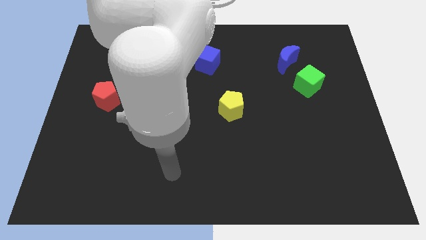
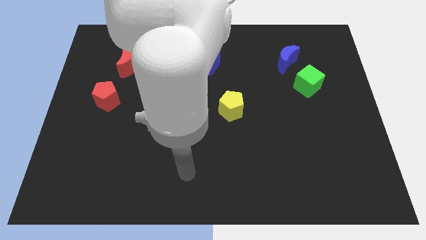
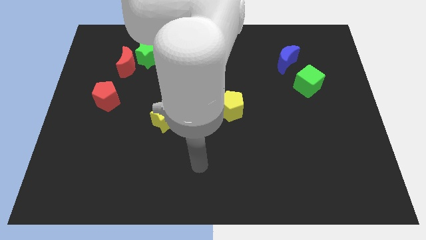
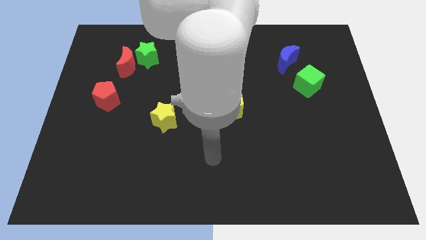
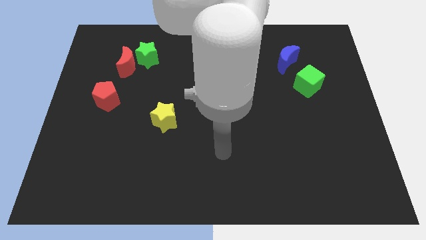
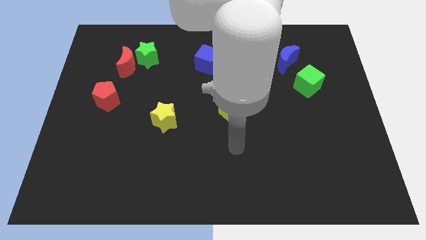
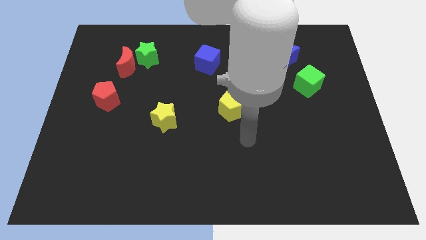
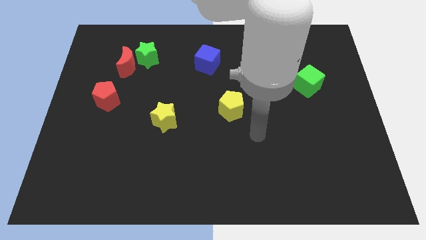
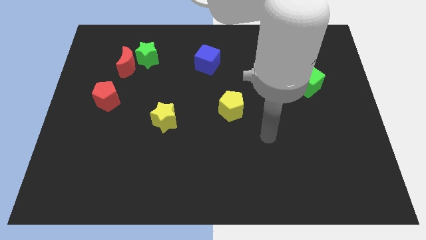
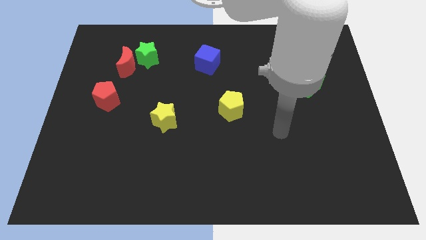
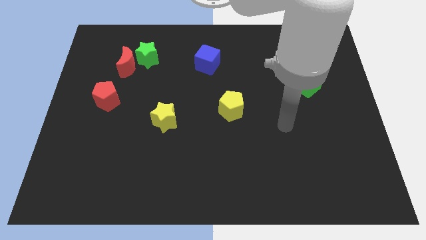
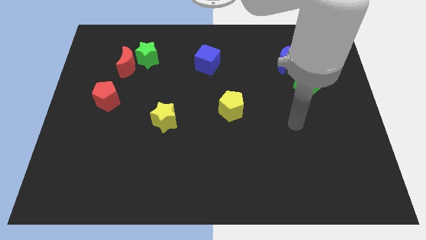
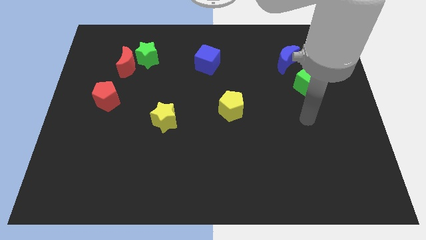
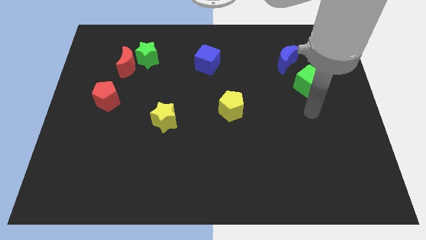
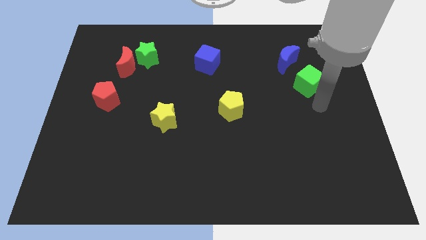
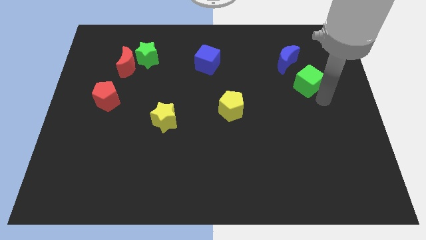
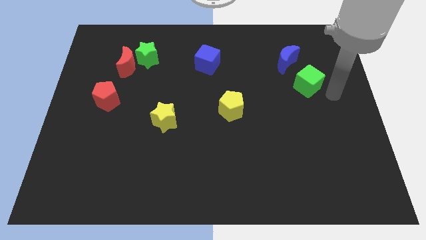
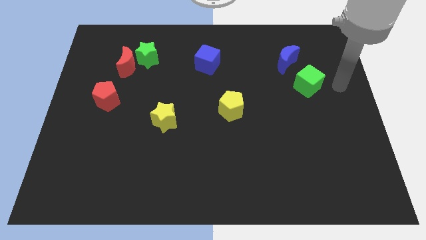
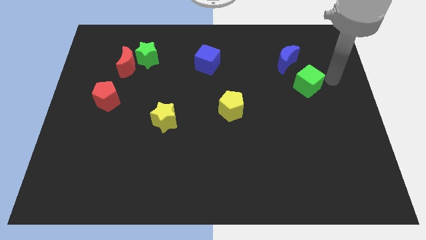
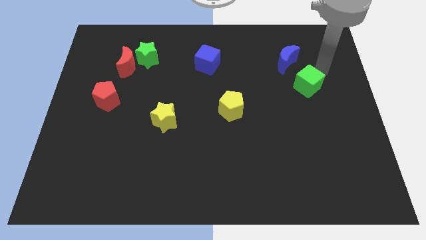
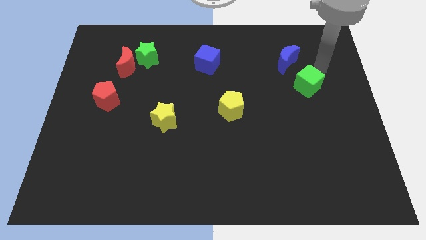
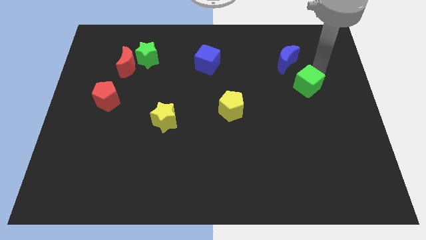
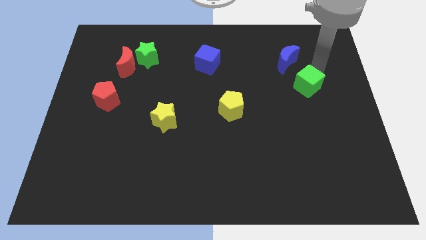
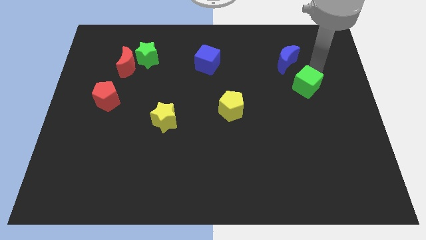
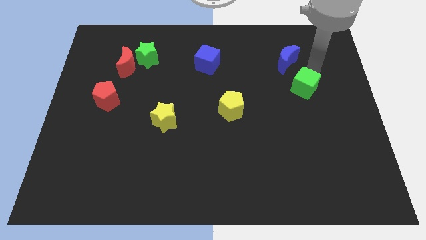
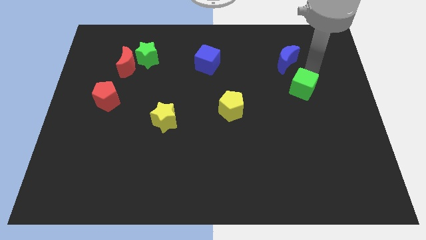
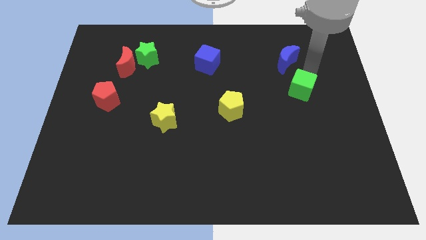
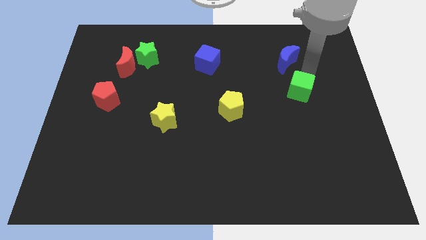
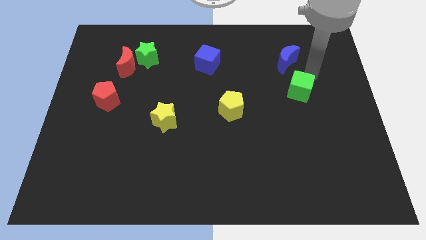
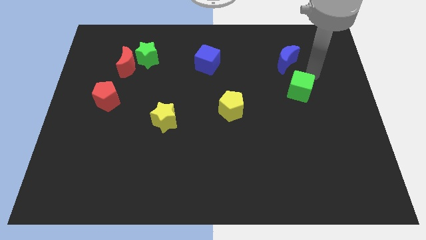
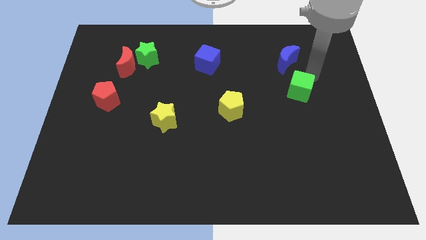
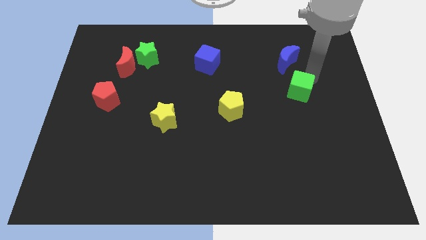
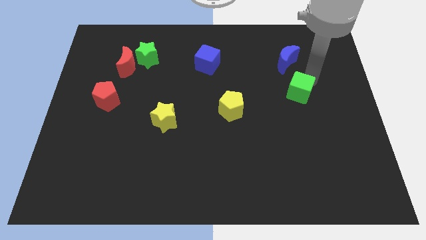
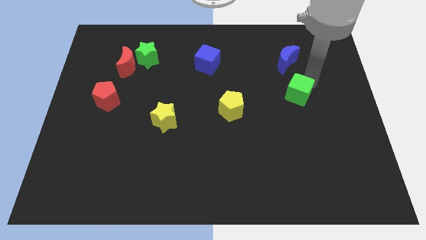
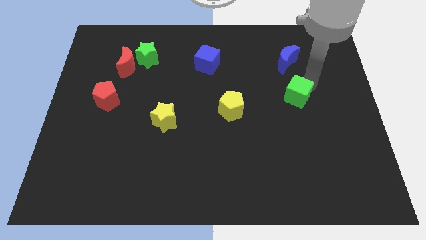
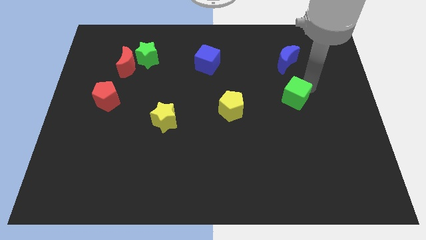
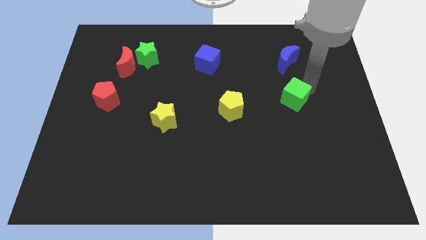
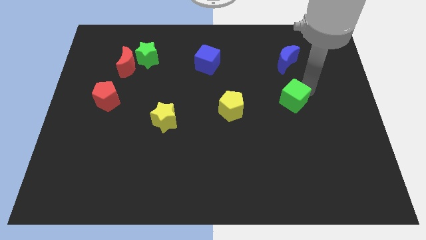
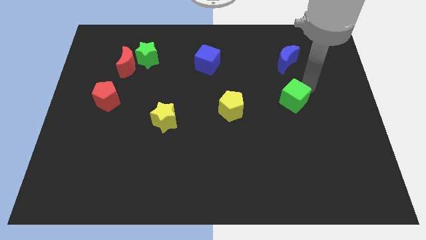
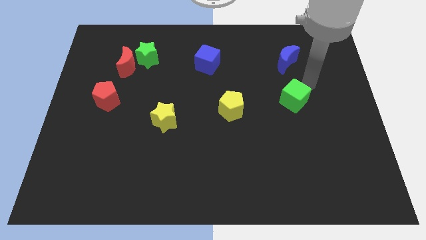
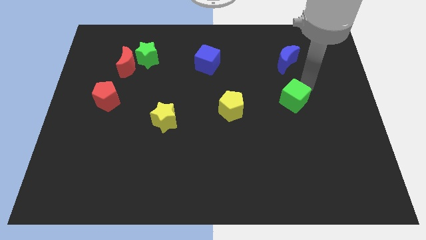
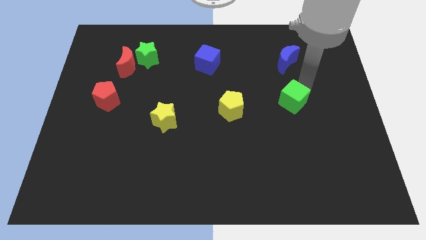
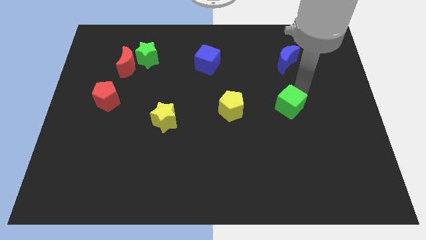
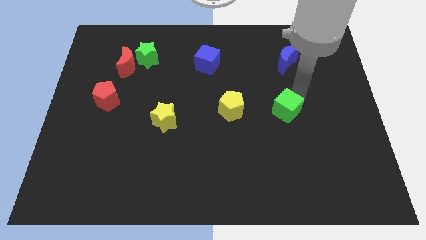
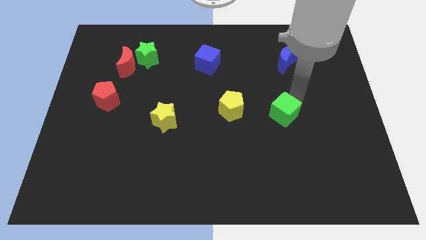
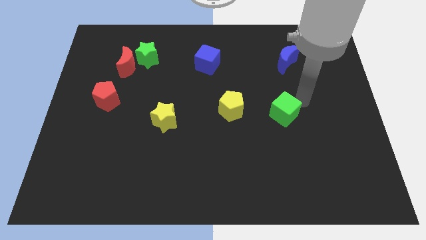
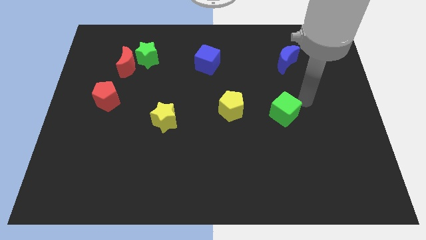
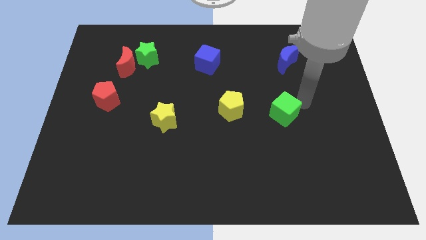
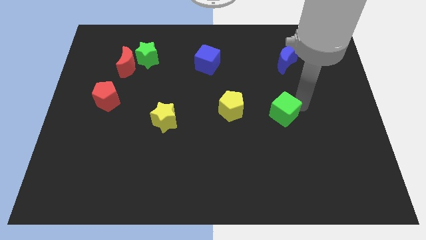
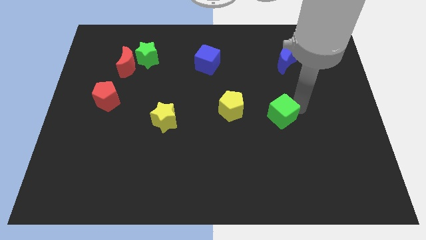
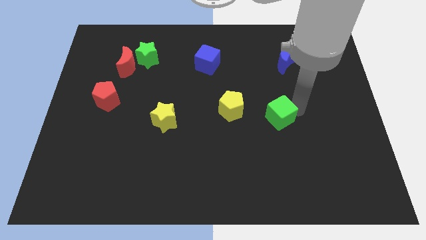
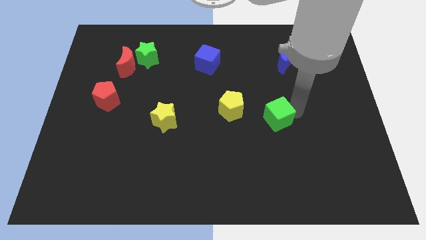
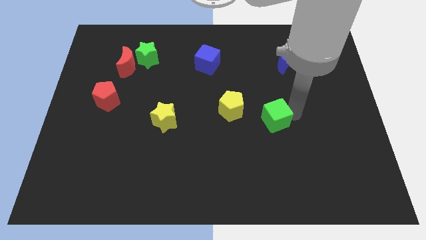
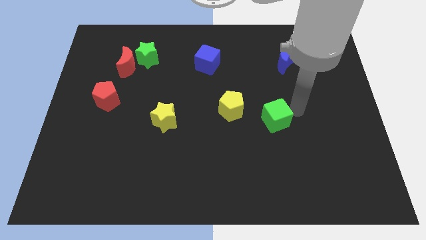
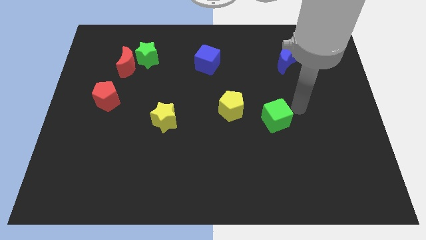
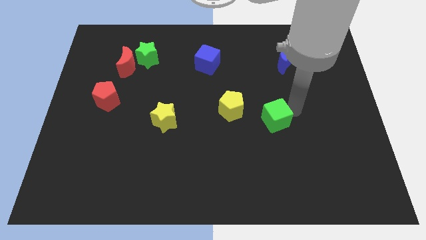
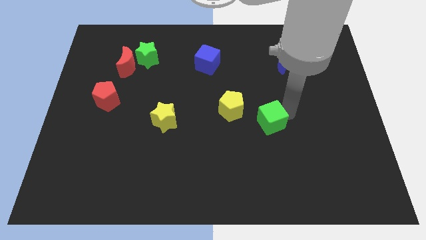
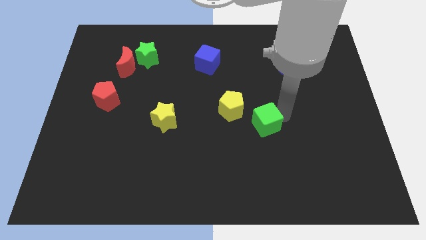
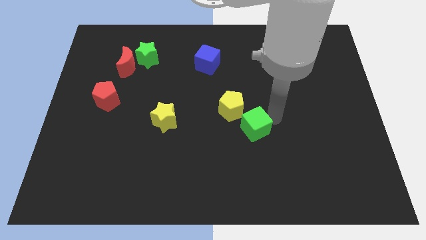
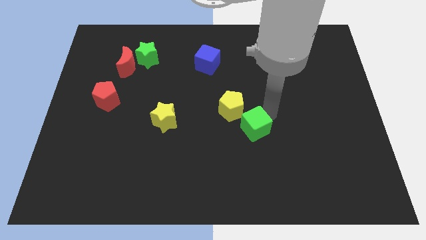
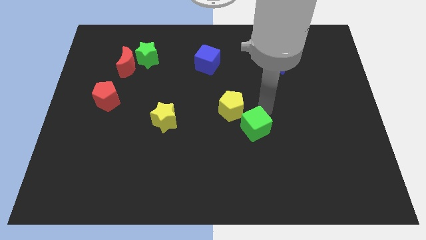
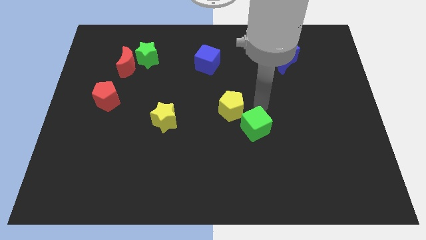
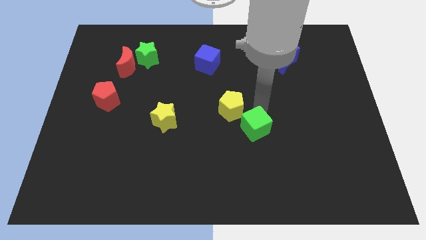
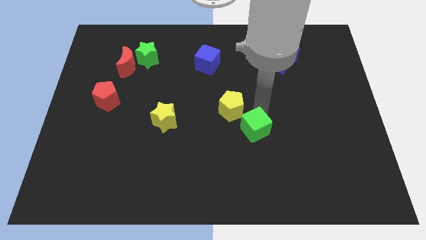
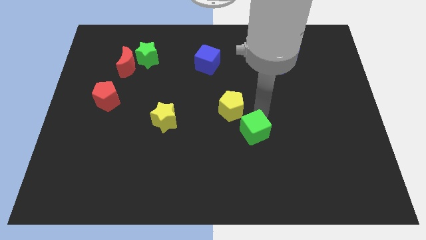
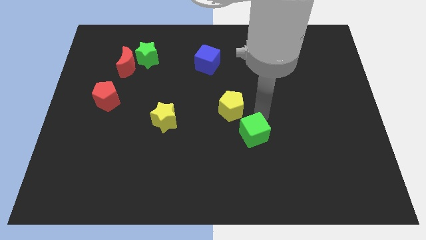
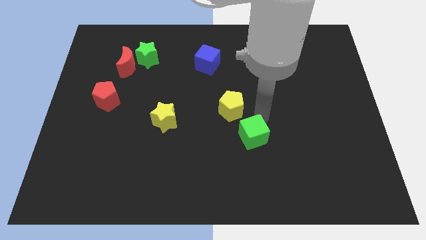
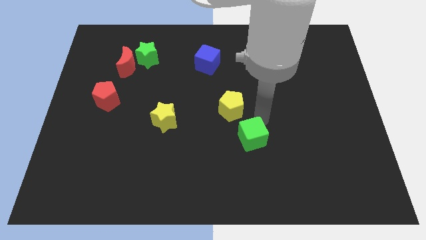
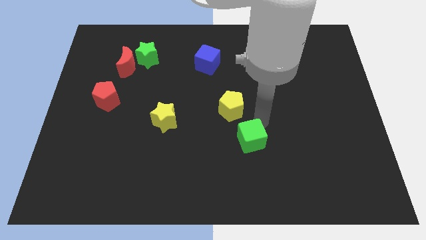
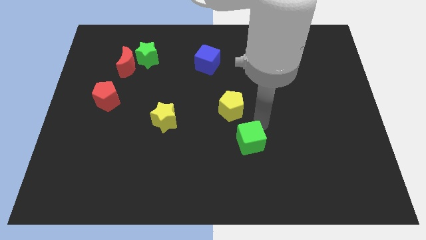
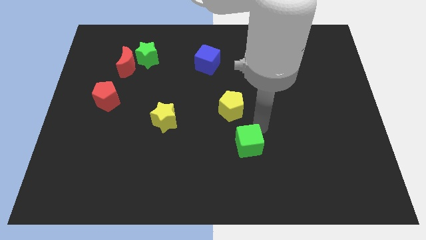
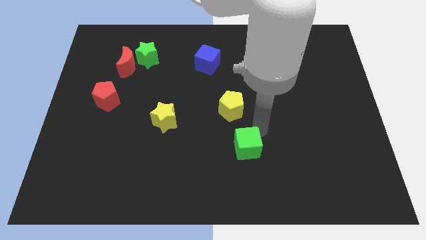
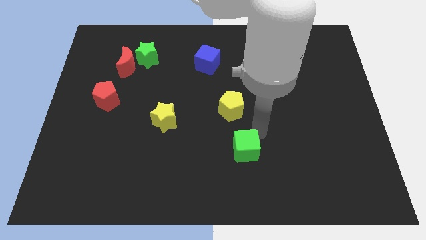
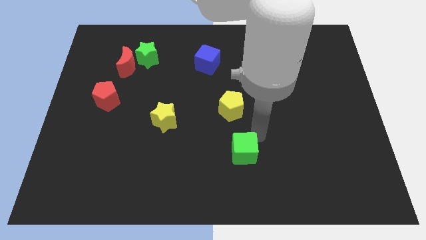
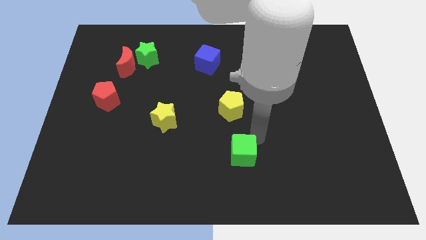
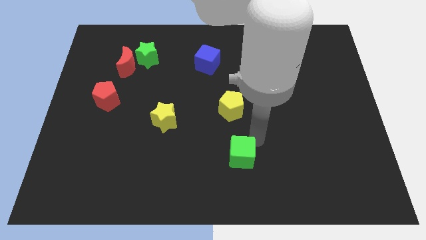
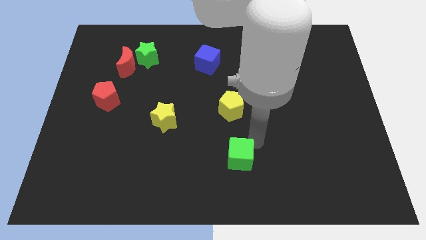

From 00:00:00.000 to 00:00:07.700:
move the green cube to the bottom side
